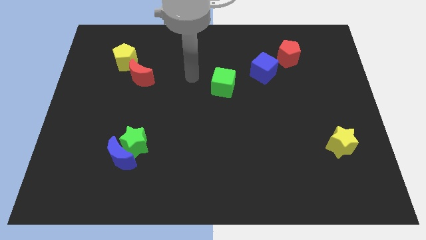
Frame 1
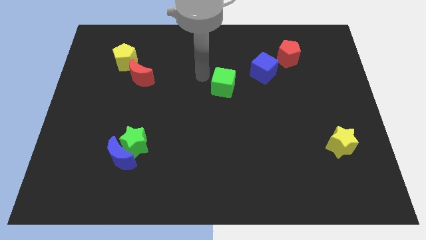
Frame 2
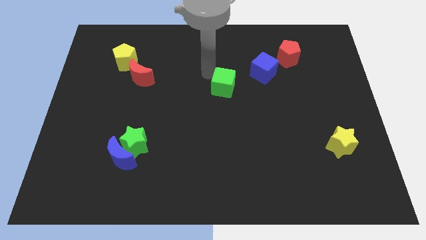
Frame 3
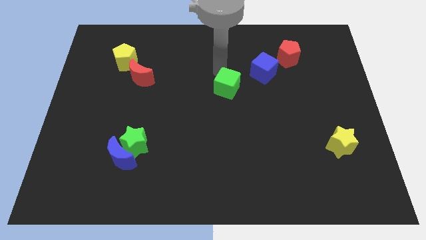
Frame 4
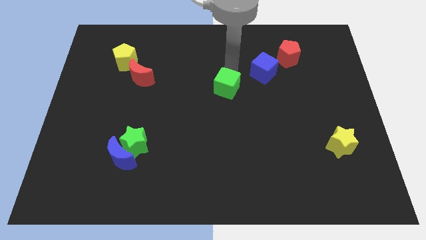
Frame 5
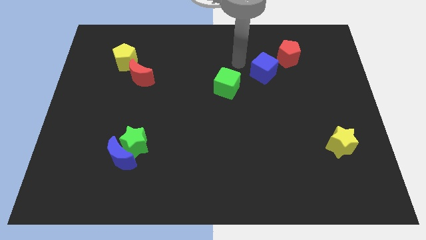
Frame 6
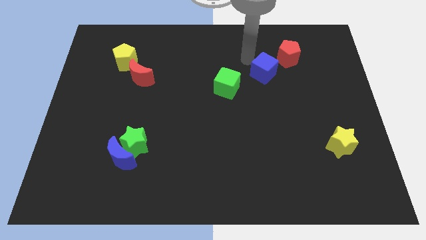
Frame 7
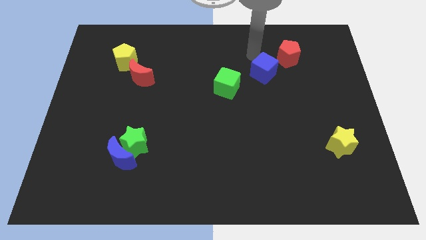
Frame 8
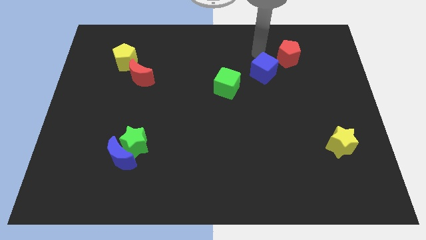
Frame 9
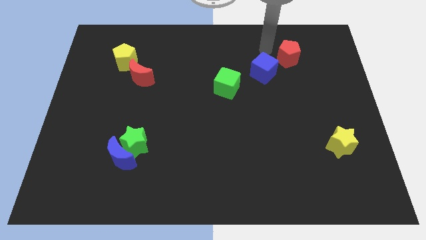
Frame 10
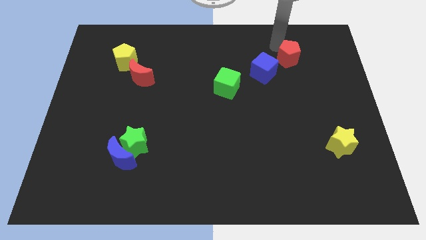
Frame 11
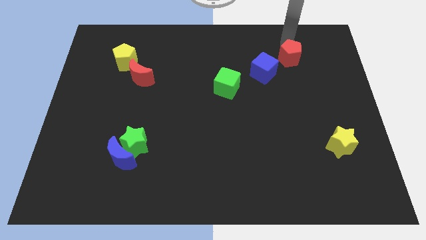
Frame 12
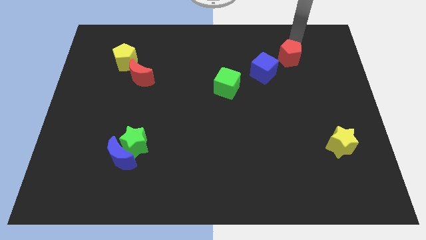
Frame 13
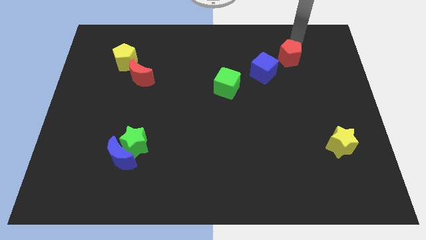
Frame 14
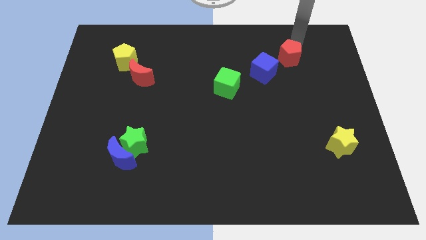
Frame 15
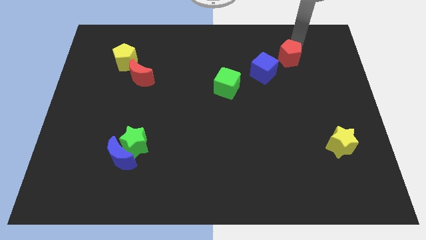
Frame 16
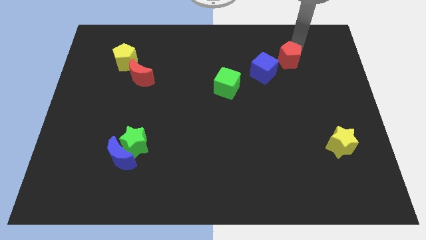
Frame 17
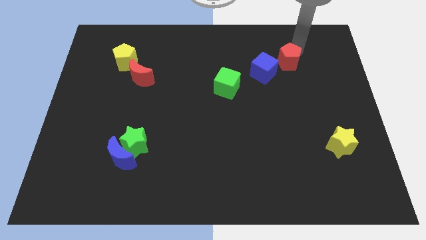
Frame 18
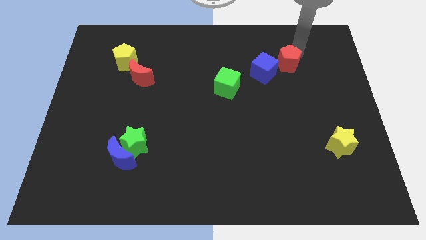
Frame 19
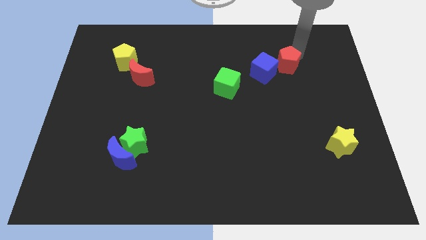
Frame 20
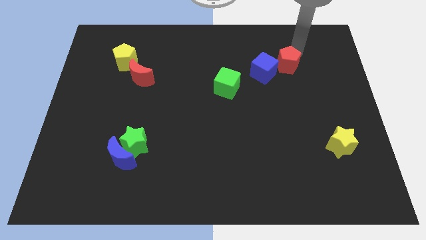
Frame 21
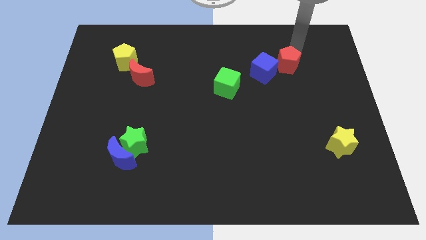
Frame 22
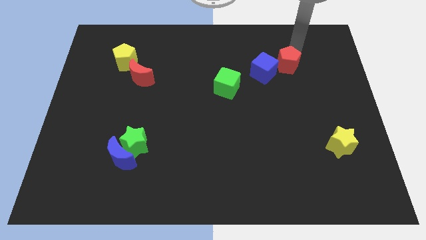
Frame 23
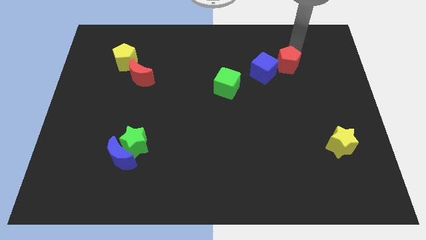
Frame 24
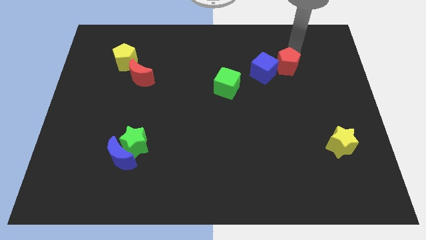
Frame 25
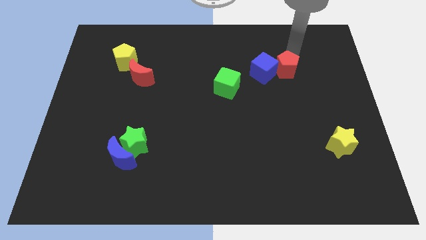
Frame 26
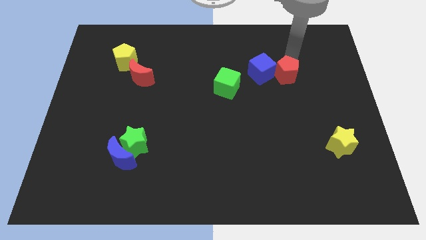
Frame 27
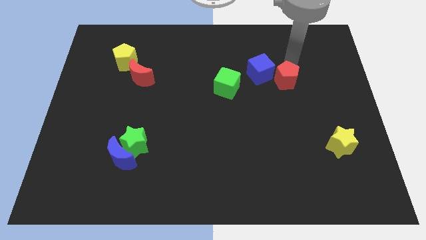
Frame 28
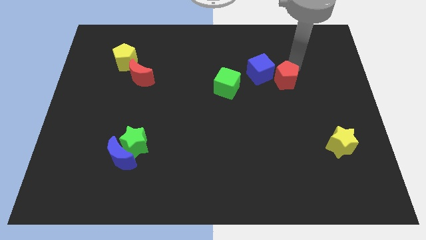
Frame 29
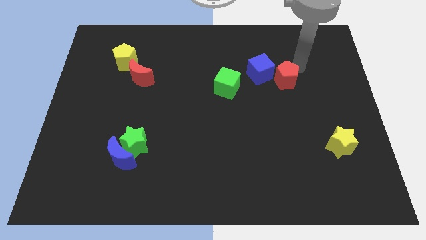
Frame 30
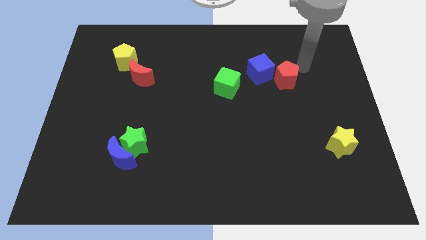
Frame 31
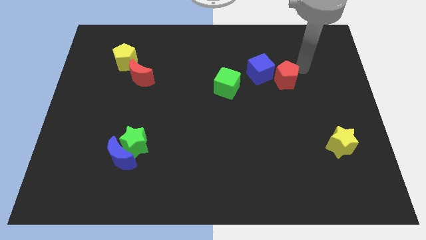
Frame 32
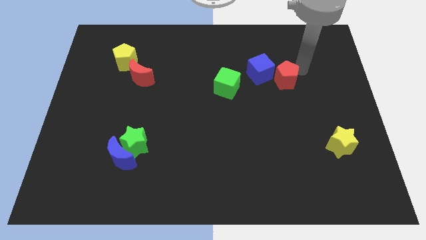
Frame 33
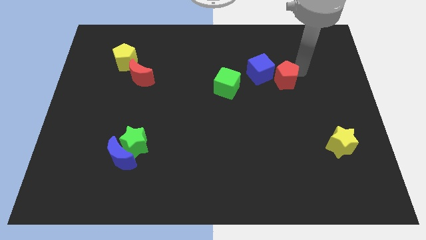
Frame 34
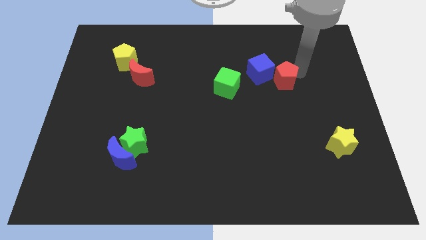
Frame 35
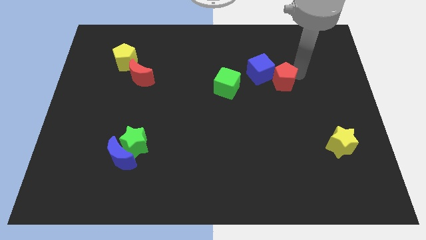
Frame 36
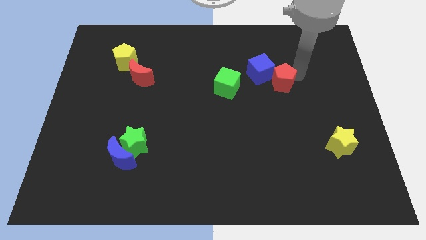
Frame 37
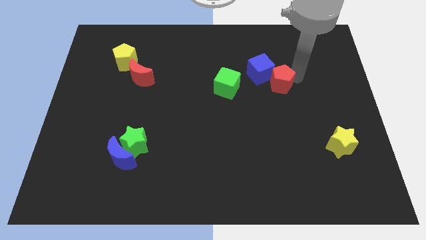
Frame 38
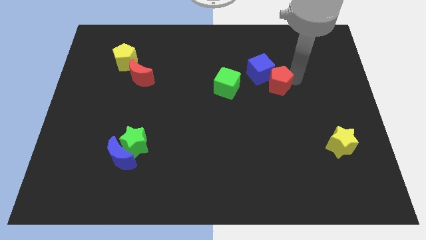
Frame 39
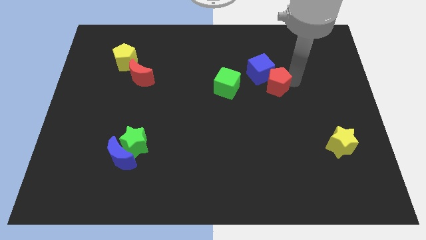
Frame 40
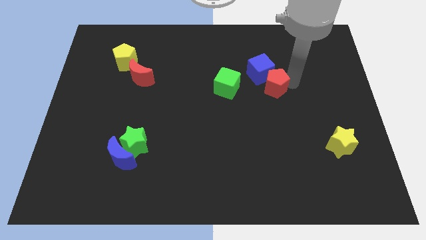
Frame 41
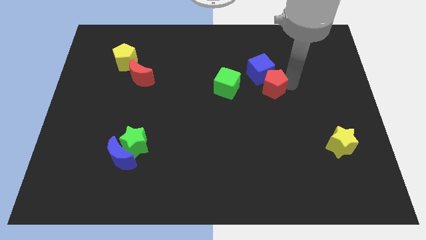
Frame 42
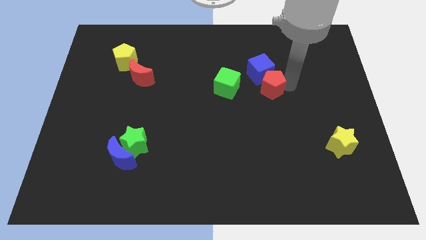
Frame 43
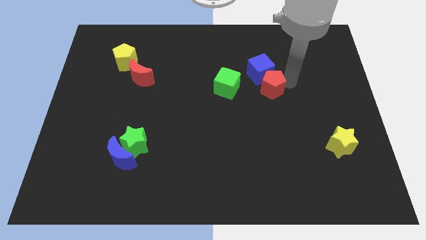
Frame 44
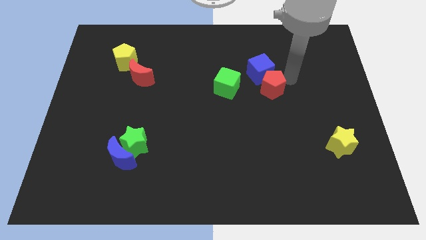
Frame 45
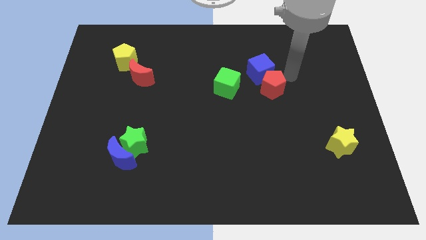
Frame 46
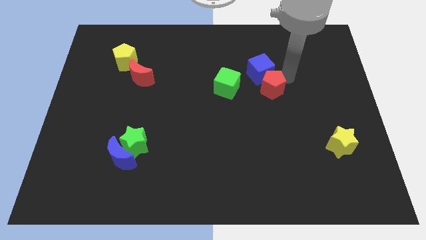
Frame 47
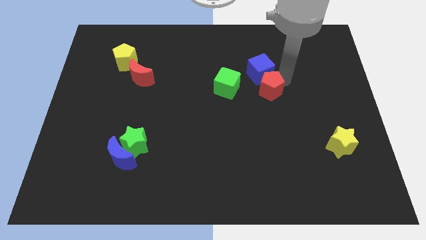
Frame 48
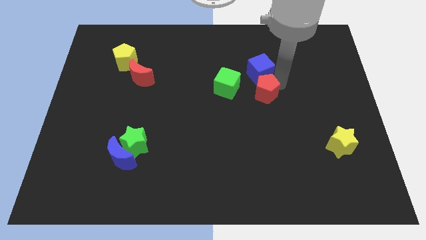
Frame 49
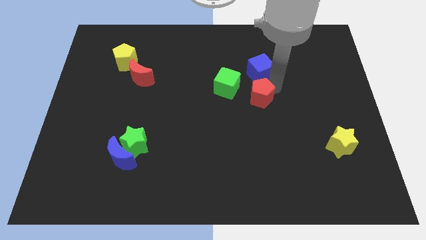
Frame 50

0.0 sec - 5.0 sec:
move the red pentagon to the bottom right side of the green cube

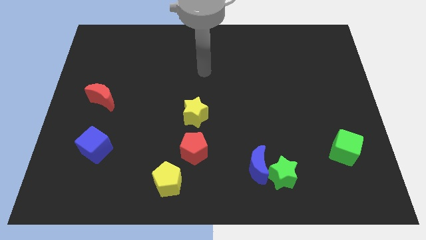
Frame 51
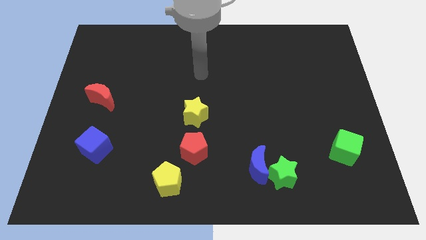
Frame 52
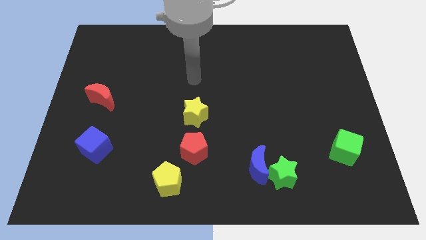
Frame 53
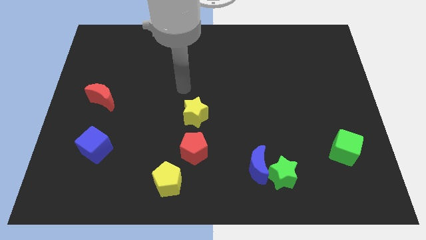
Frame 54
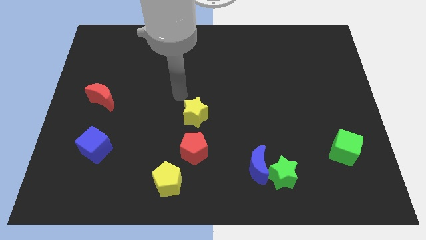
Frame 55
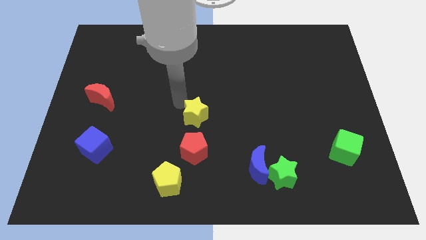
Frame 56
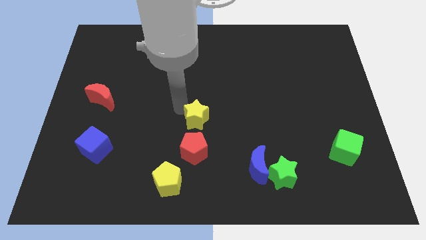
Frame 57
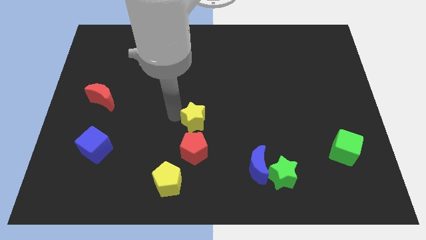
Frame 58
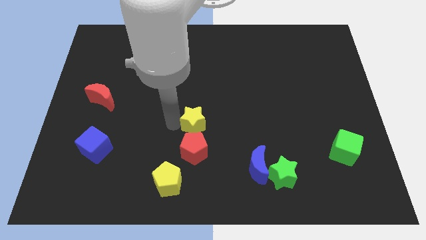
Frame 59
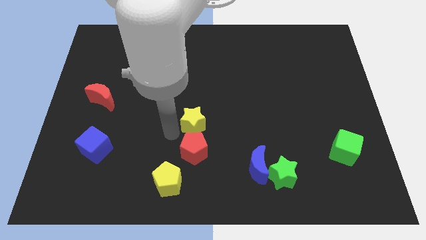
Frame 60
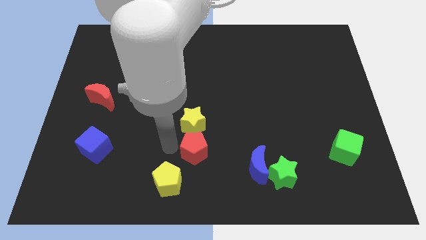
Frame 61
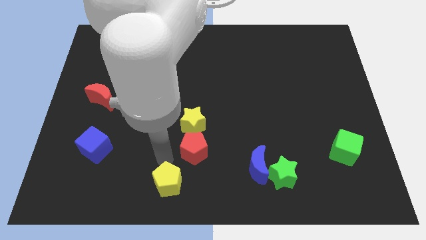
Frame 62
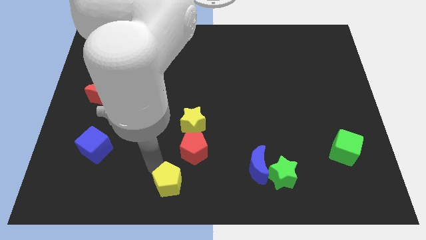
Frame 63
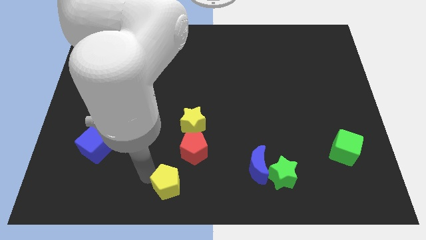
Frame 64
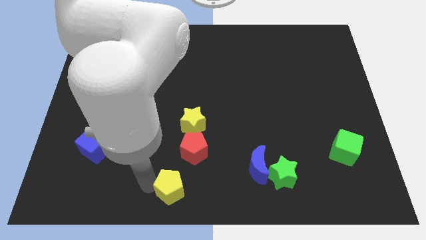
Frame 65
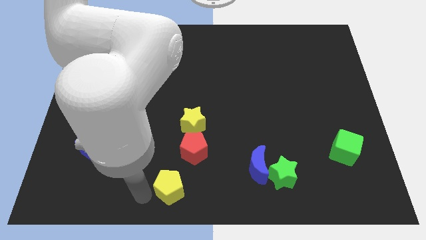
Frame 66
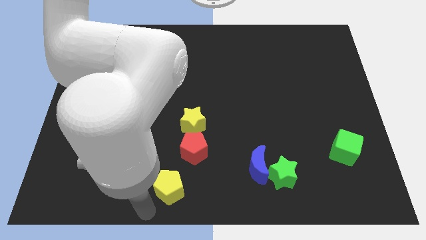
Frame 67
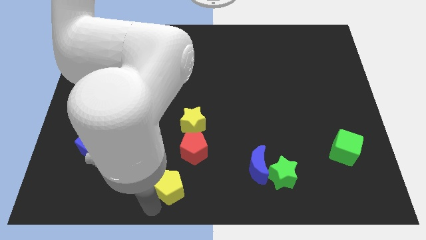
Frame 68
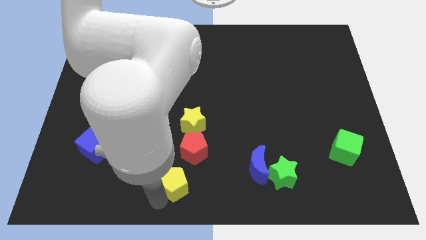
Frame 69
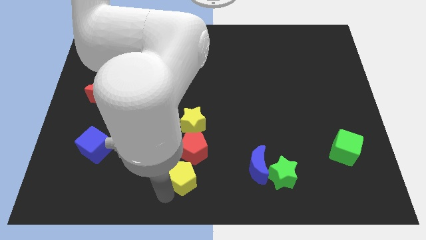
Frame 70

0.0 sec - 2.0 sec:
slide the yellow pentagon below the yellow star

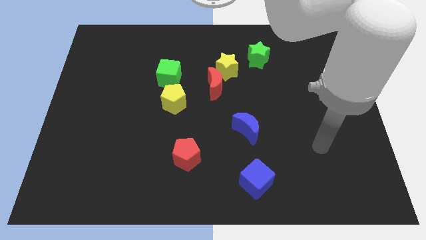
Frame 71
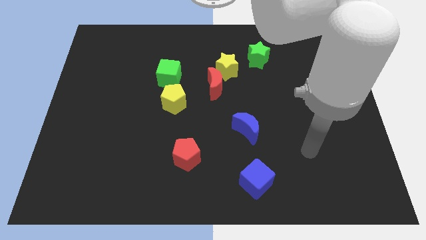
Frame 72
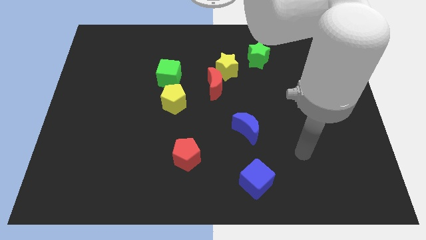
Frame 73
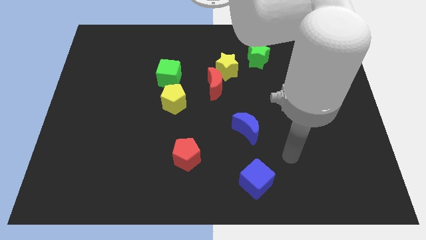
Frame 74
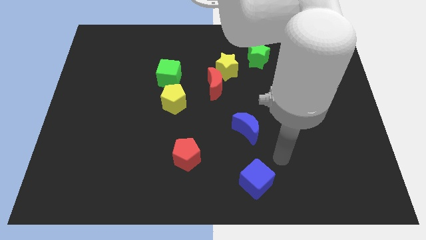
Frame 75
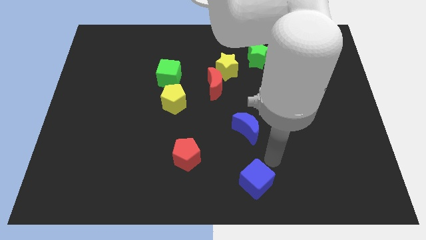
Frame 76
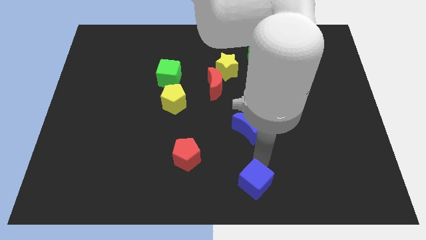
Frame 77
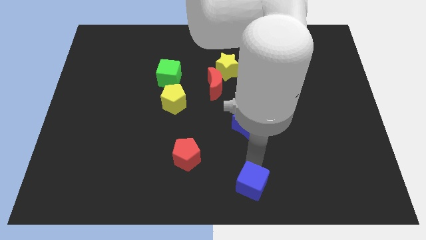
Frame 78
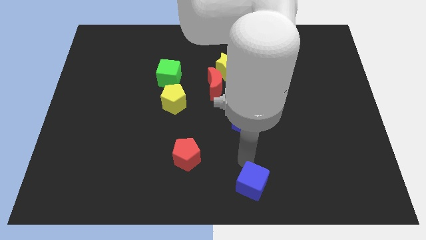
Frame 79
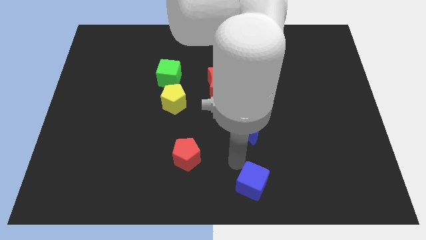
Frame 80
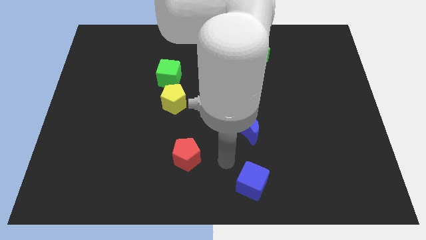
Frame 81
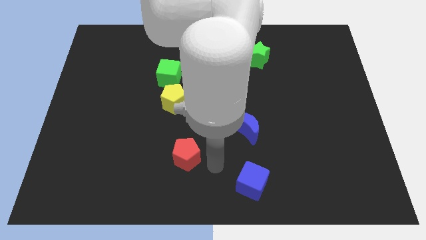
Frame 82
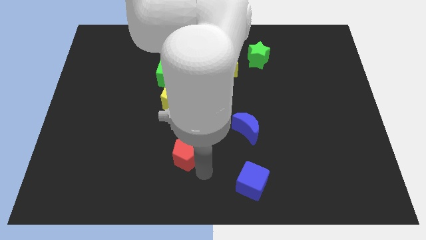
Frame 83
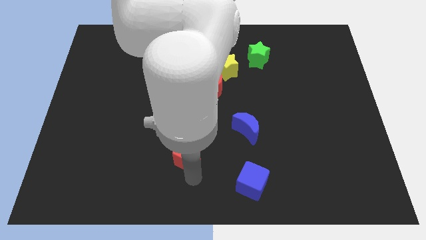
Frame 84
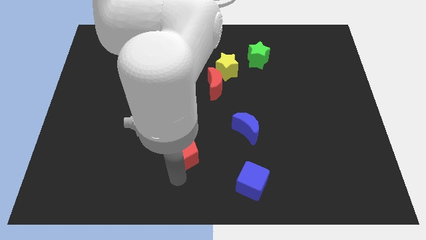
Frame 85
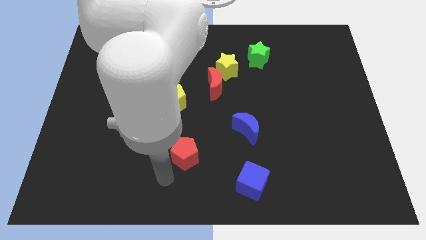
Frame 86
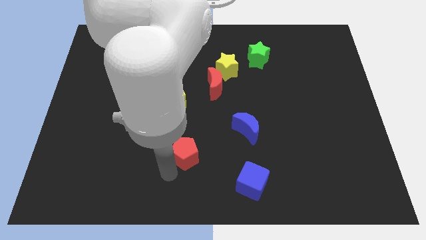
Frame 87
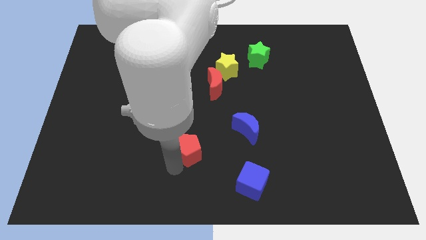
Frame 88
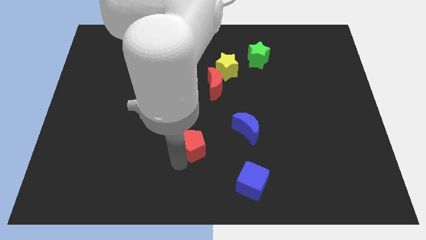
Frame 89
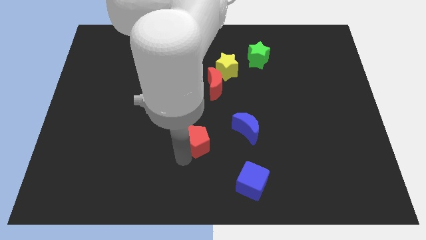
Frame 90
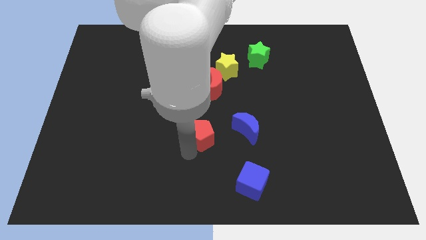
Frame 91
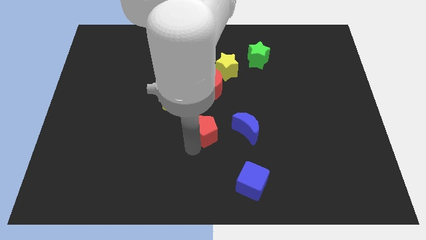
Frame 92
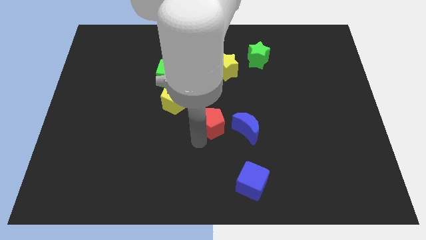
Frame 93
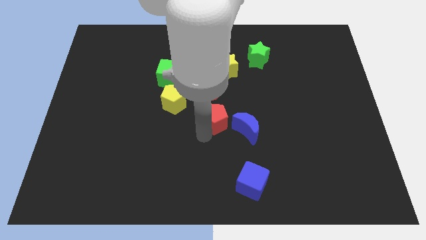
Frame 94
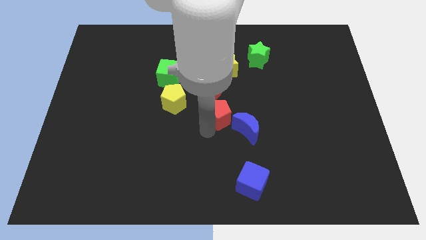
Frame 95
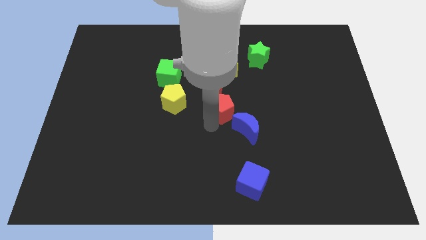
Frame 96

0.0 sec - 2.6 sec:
slide the red pentagon diagonally down and to the right of the red moon
